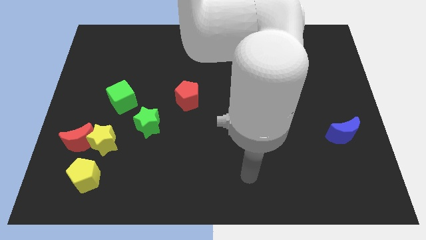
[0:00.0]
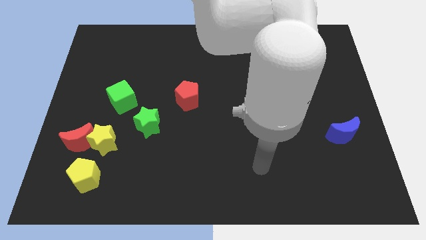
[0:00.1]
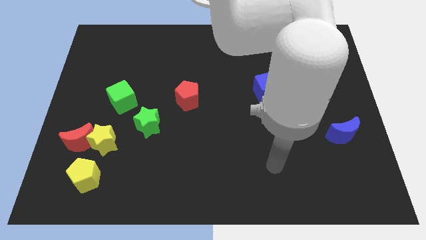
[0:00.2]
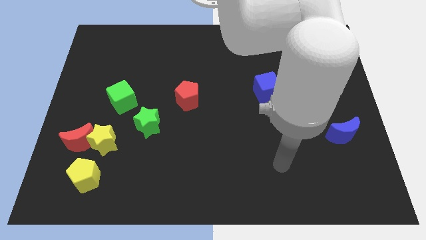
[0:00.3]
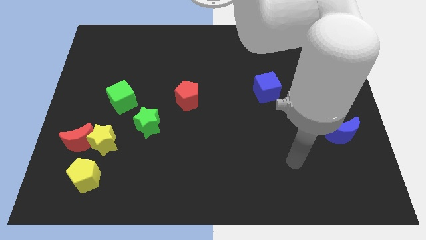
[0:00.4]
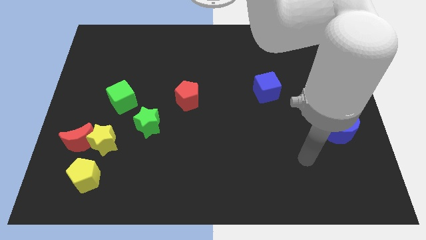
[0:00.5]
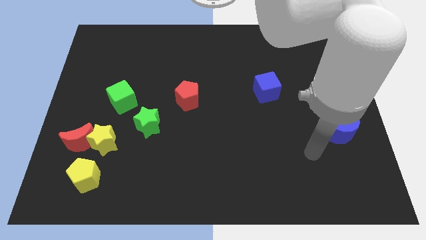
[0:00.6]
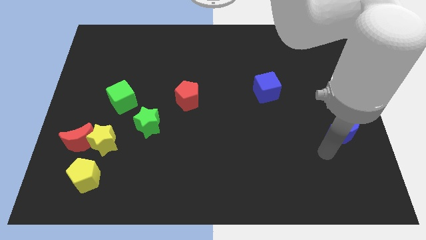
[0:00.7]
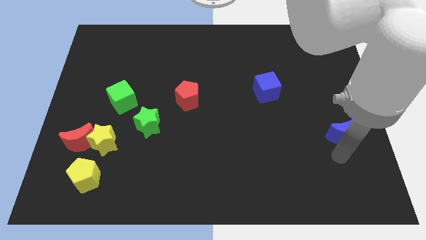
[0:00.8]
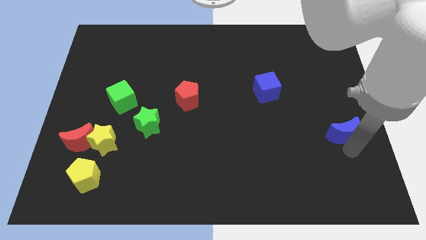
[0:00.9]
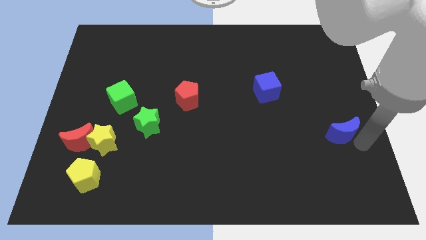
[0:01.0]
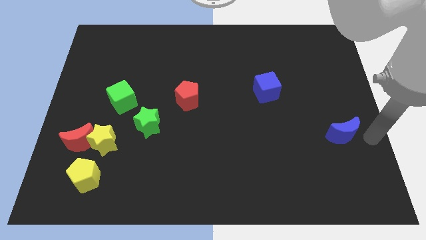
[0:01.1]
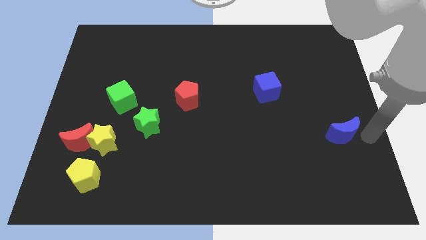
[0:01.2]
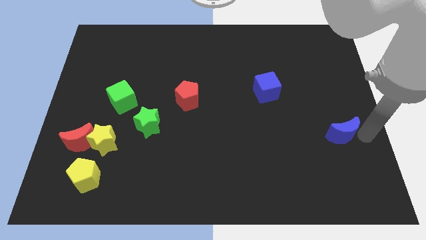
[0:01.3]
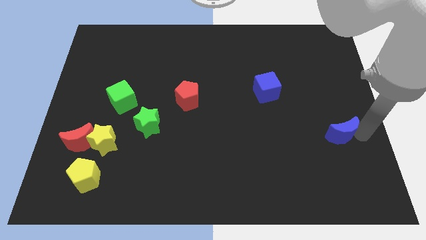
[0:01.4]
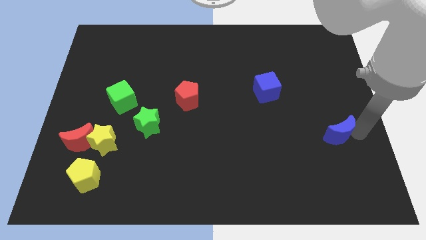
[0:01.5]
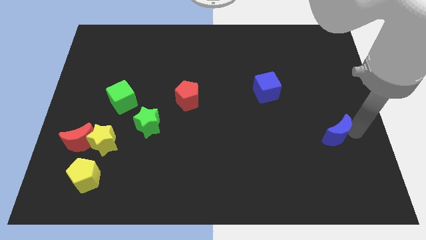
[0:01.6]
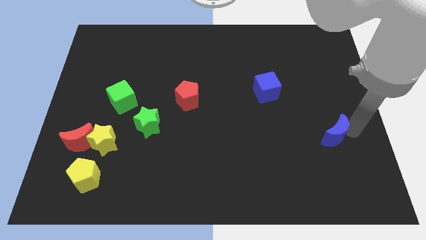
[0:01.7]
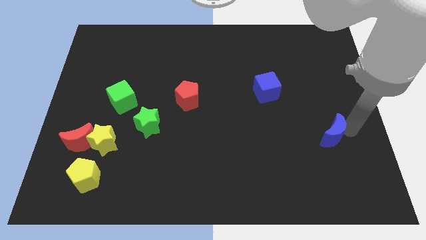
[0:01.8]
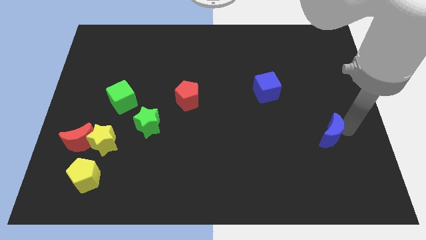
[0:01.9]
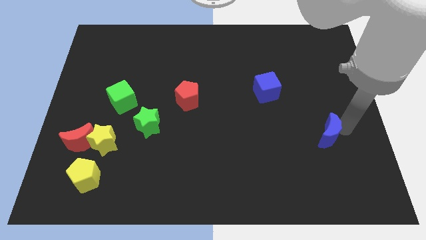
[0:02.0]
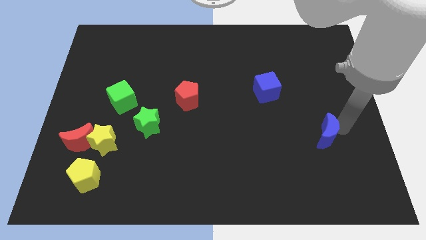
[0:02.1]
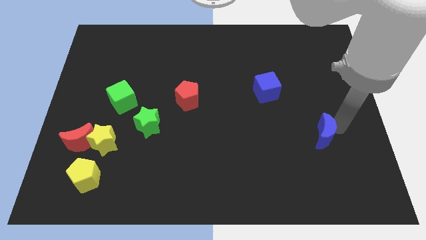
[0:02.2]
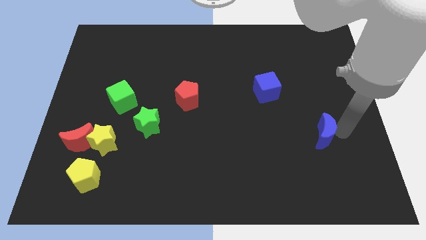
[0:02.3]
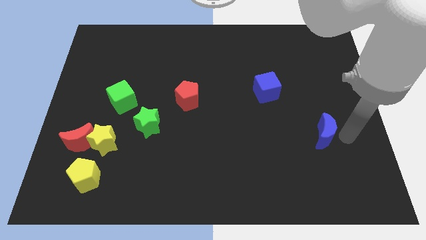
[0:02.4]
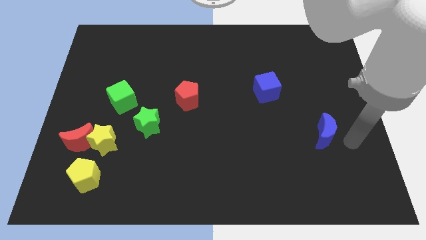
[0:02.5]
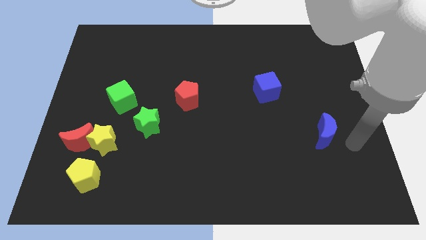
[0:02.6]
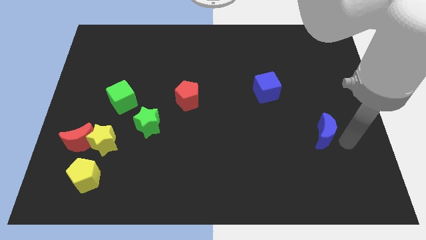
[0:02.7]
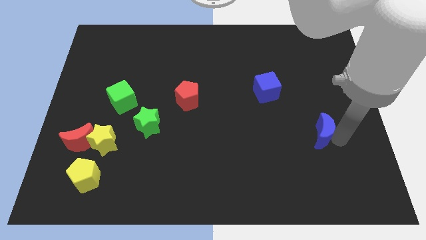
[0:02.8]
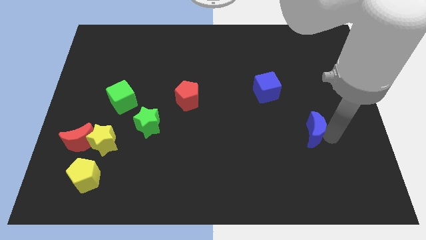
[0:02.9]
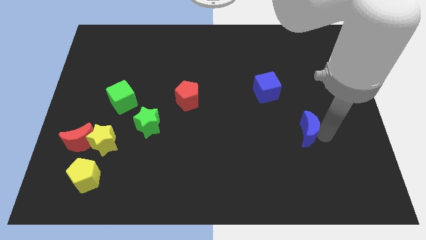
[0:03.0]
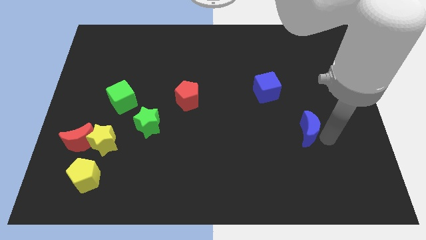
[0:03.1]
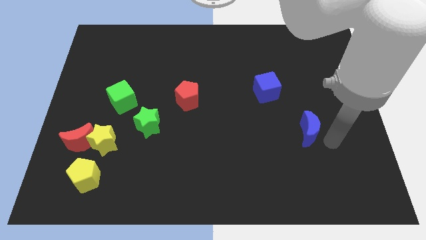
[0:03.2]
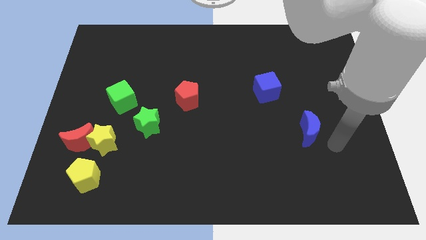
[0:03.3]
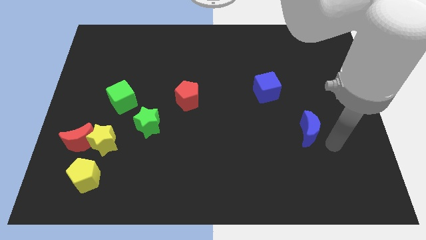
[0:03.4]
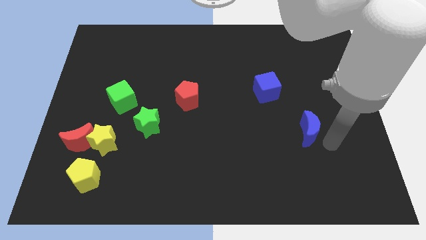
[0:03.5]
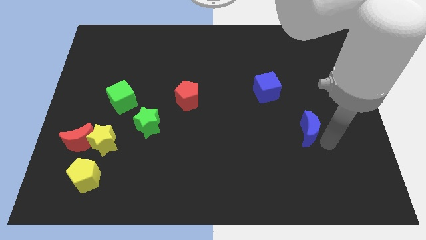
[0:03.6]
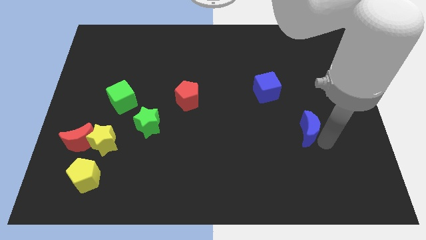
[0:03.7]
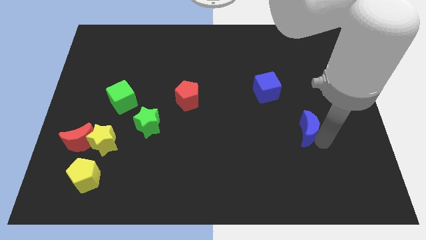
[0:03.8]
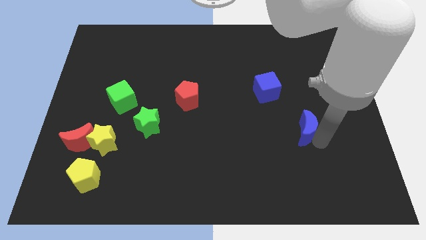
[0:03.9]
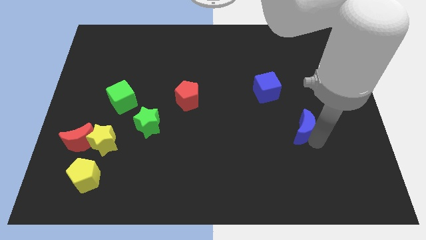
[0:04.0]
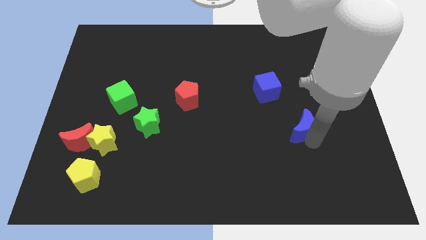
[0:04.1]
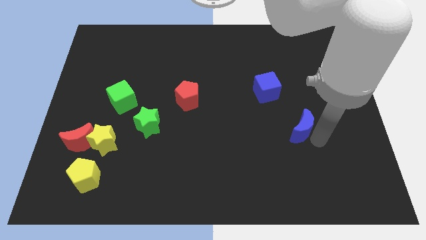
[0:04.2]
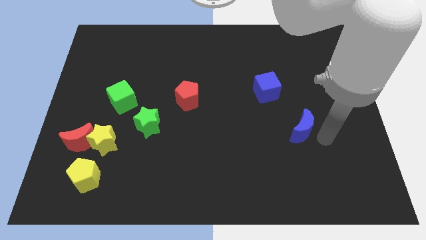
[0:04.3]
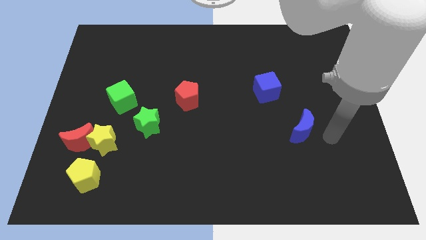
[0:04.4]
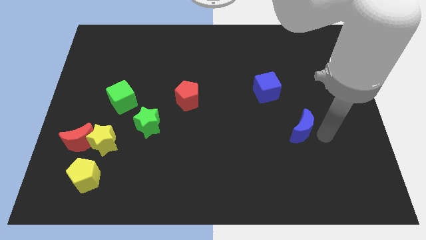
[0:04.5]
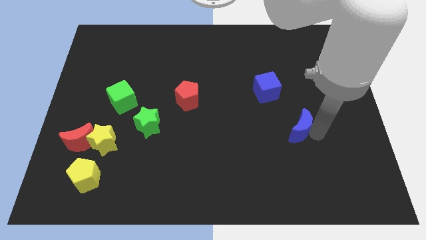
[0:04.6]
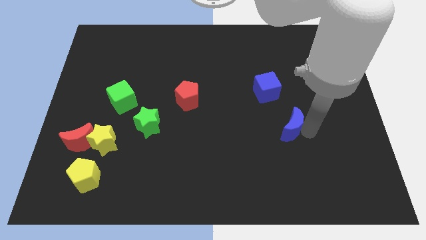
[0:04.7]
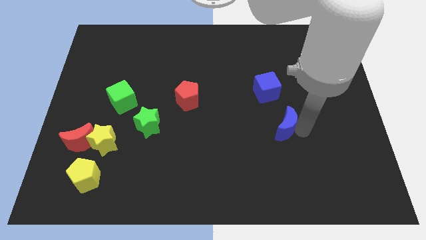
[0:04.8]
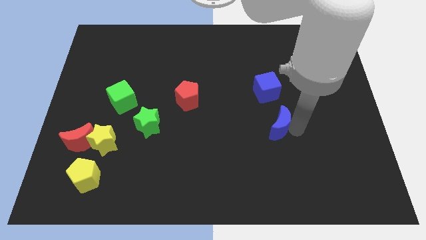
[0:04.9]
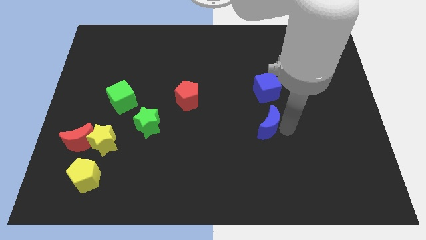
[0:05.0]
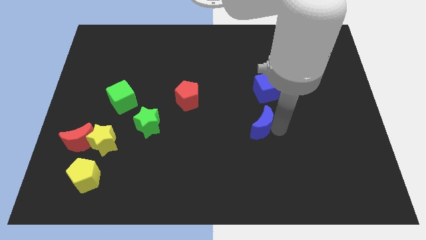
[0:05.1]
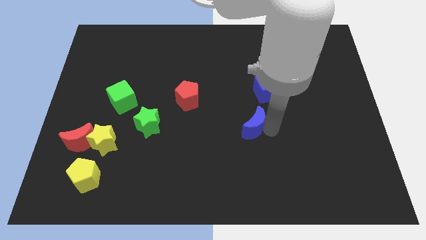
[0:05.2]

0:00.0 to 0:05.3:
move the blue moon to the middle

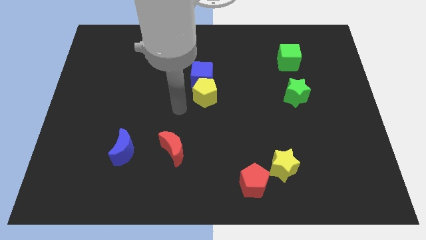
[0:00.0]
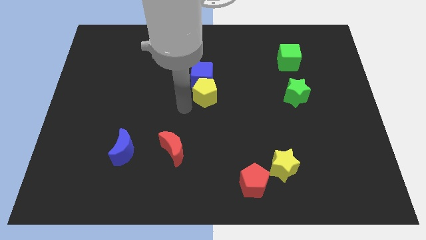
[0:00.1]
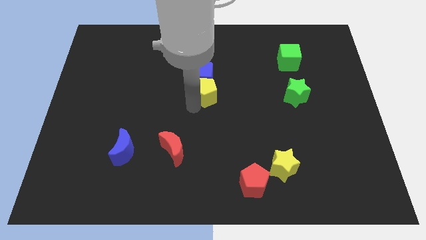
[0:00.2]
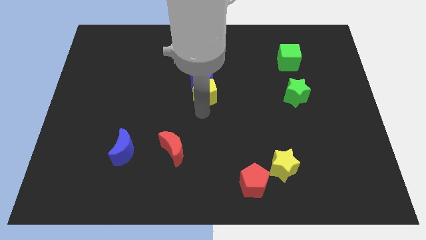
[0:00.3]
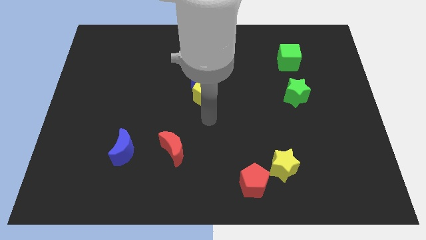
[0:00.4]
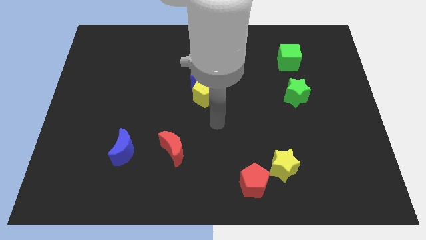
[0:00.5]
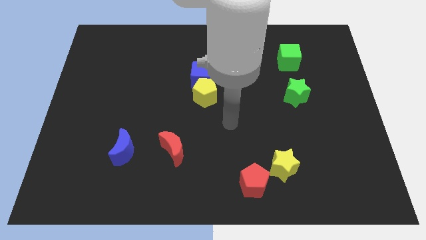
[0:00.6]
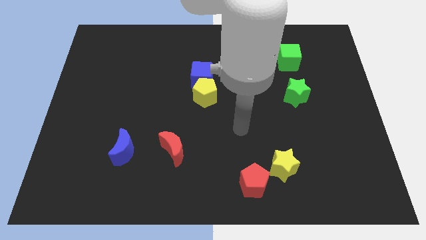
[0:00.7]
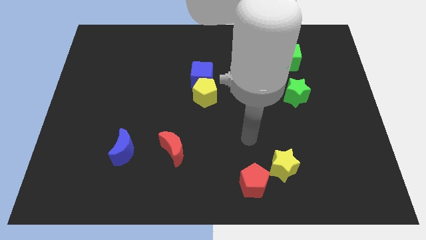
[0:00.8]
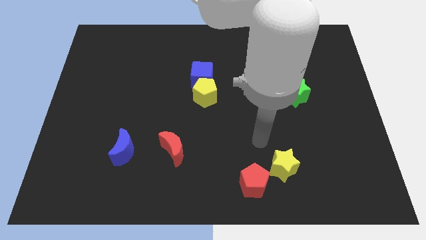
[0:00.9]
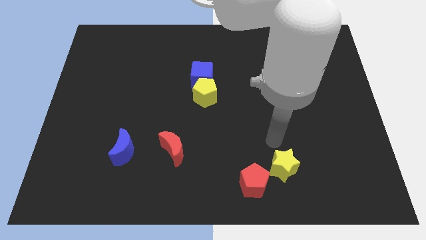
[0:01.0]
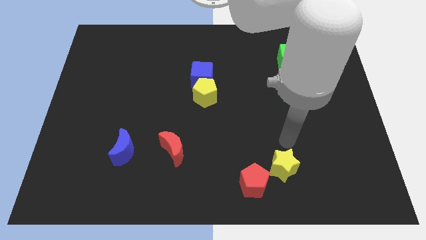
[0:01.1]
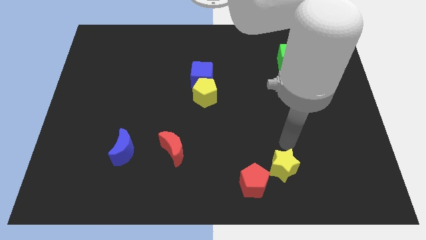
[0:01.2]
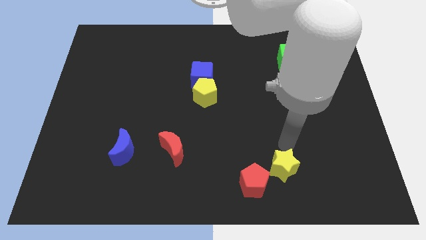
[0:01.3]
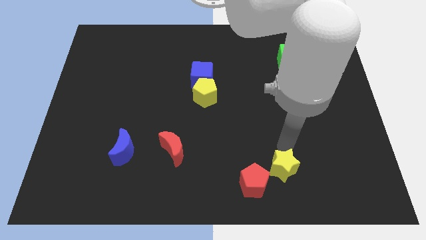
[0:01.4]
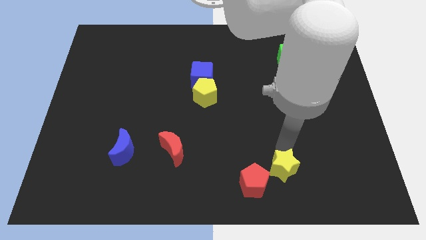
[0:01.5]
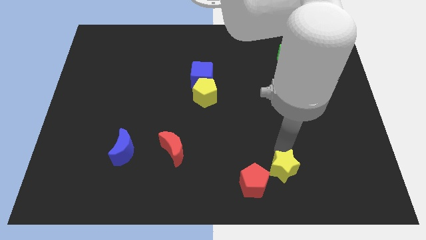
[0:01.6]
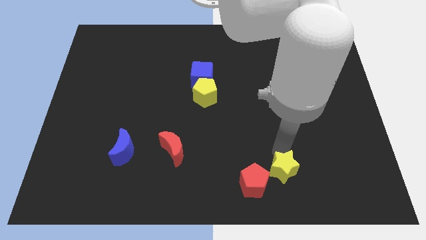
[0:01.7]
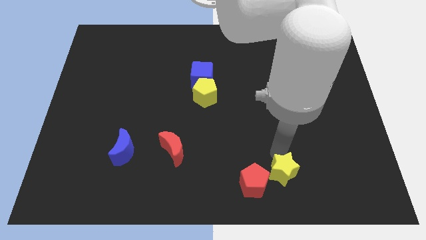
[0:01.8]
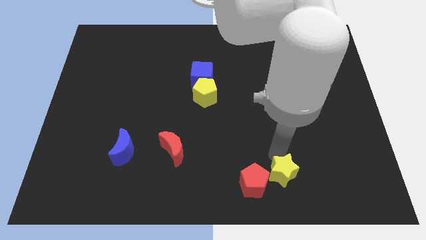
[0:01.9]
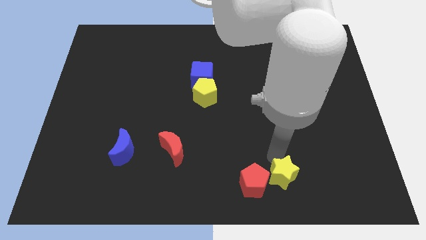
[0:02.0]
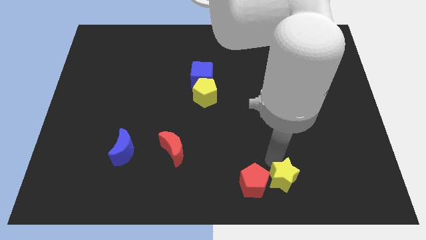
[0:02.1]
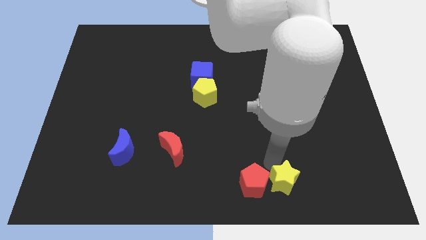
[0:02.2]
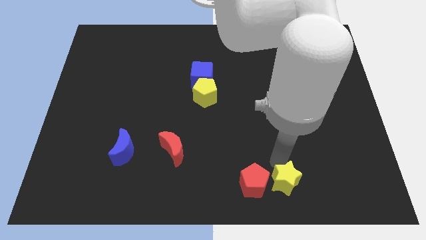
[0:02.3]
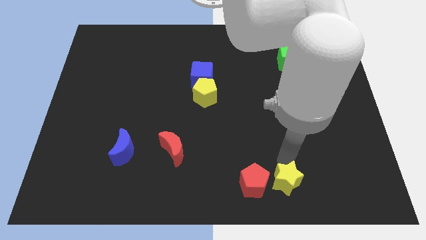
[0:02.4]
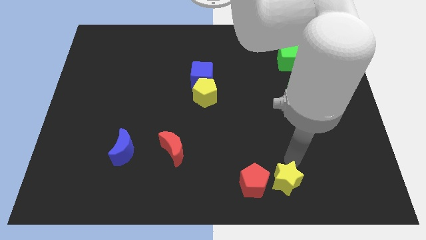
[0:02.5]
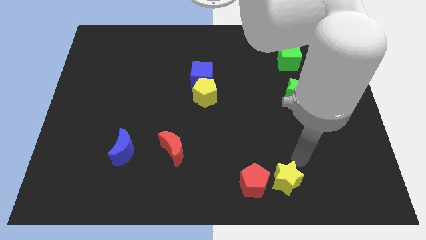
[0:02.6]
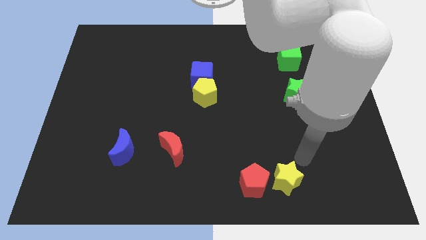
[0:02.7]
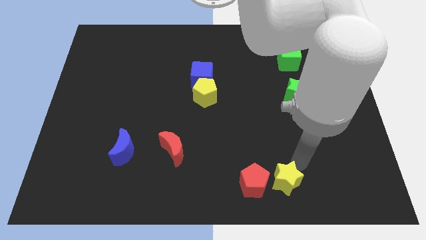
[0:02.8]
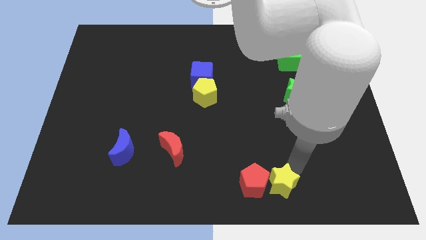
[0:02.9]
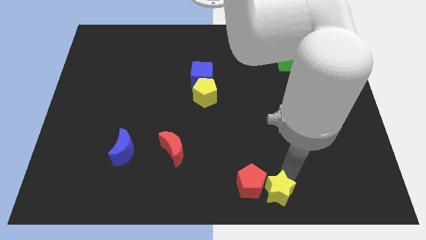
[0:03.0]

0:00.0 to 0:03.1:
put the yellow star to the bottom
